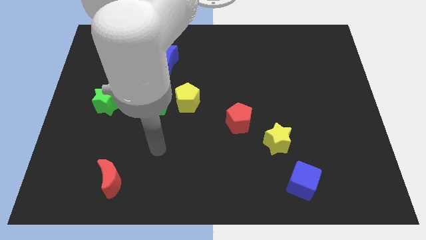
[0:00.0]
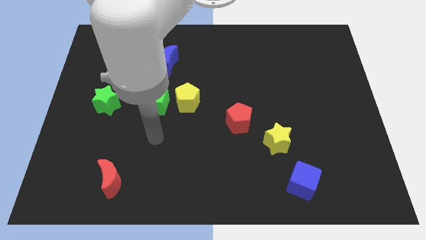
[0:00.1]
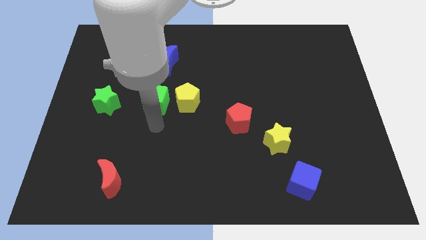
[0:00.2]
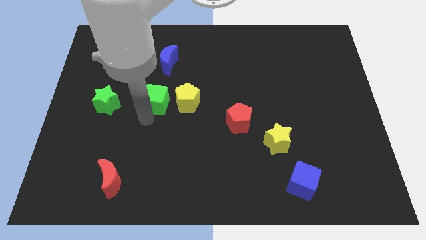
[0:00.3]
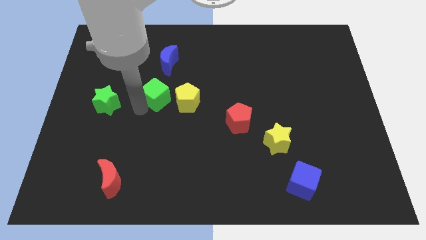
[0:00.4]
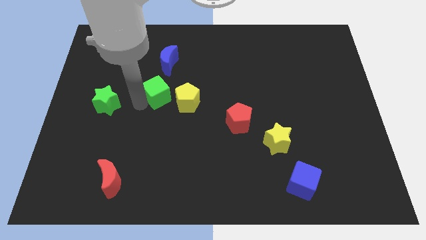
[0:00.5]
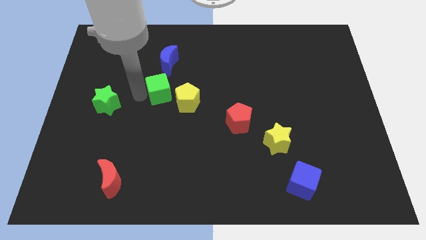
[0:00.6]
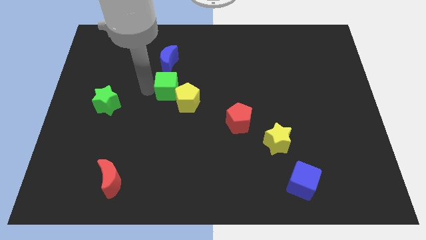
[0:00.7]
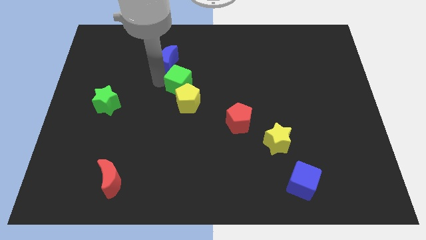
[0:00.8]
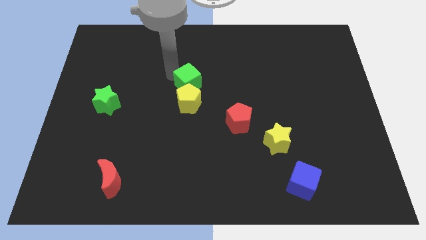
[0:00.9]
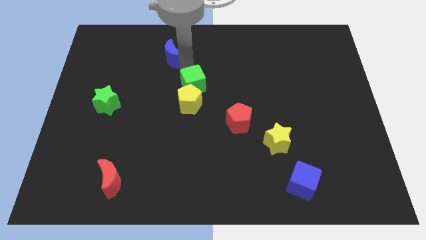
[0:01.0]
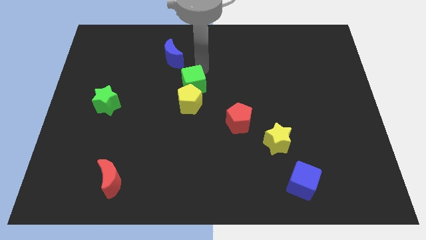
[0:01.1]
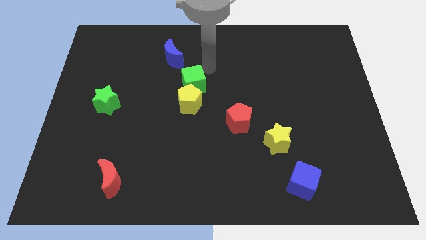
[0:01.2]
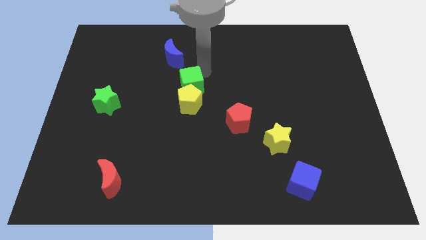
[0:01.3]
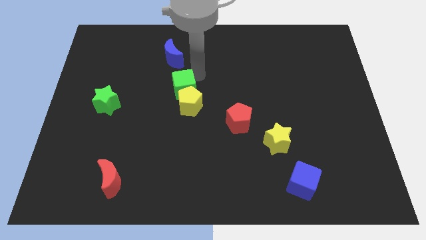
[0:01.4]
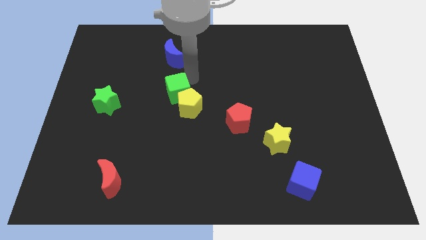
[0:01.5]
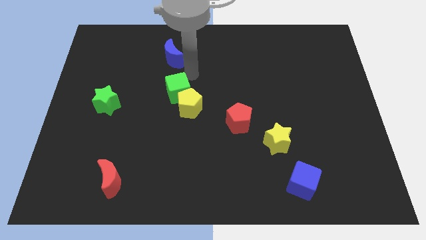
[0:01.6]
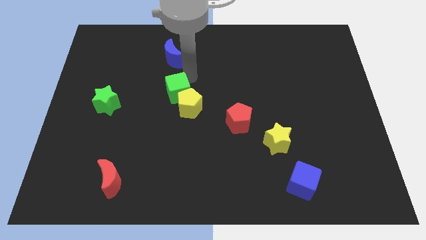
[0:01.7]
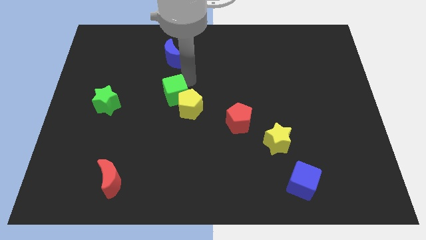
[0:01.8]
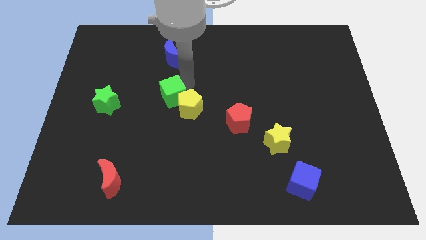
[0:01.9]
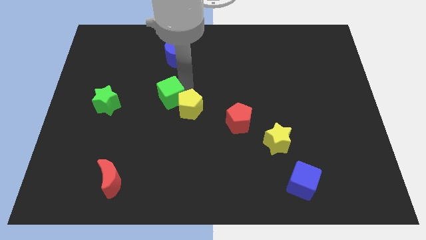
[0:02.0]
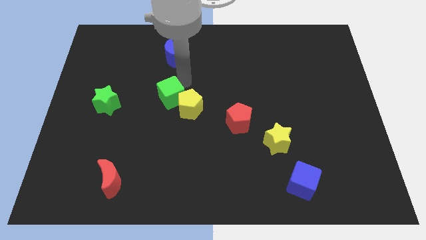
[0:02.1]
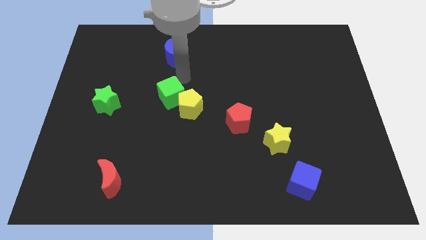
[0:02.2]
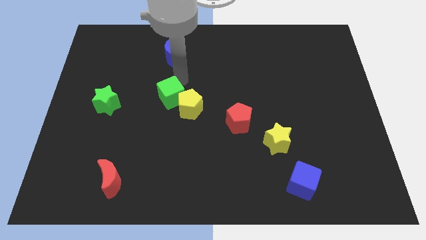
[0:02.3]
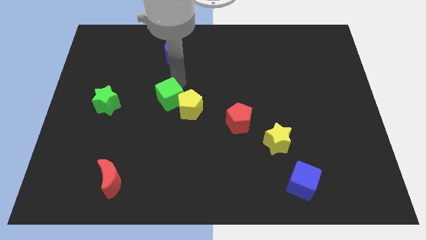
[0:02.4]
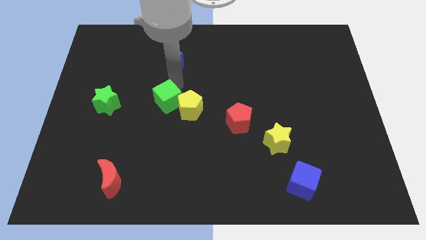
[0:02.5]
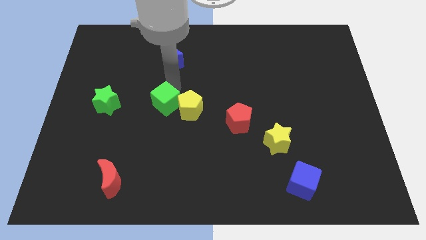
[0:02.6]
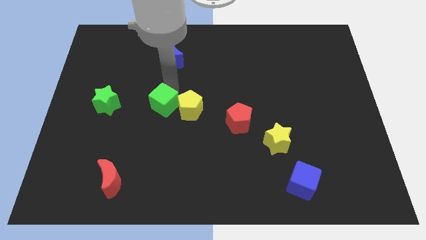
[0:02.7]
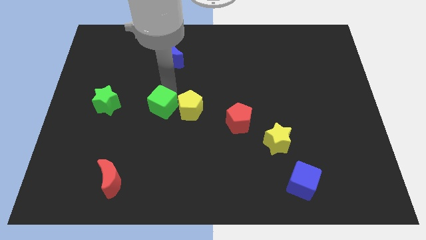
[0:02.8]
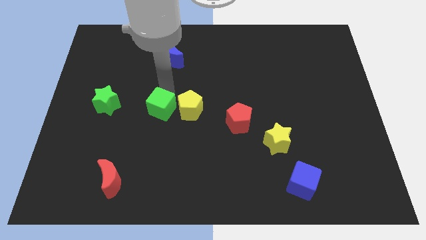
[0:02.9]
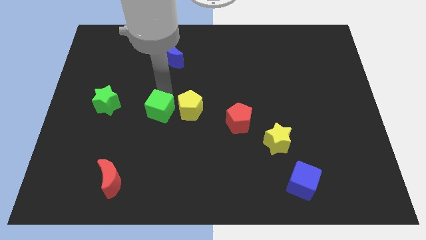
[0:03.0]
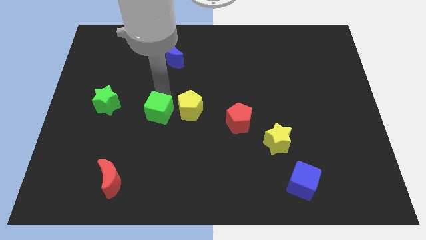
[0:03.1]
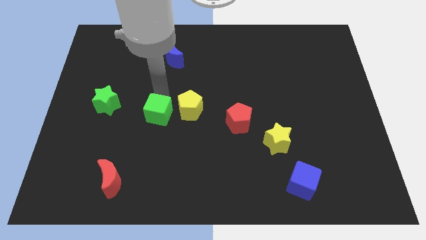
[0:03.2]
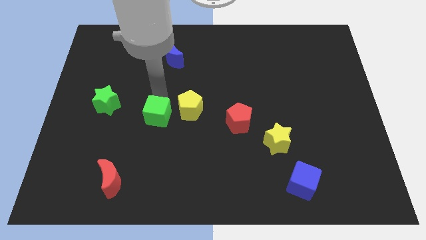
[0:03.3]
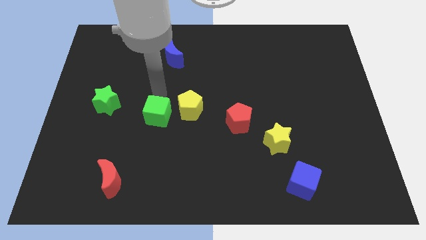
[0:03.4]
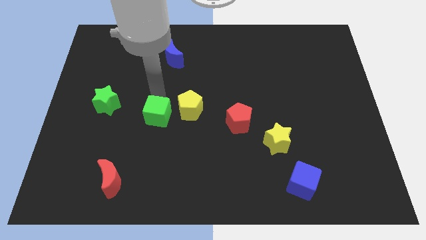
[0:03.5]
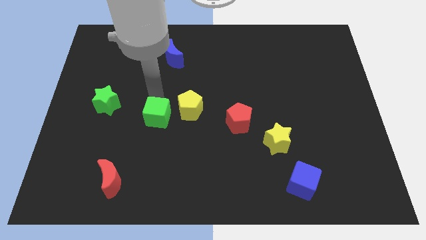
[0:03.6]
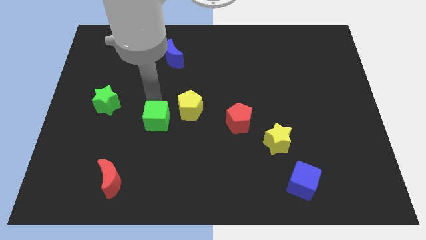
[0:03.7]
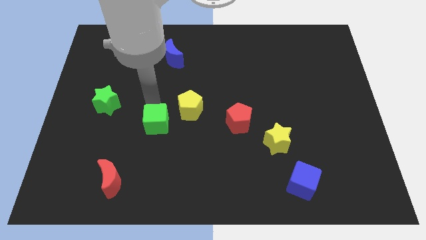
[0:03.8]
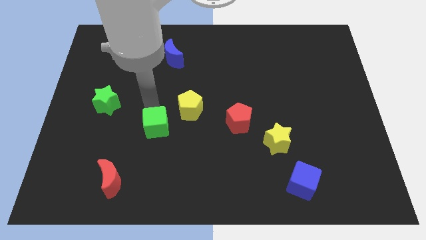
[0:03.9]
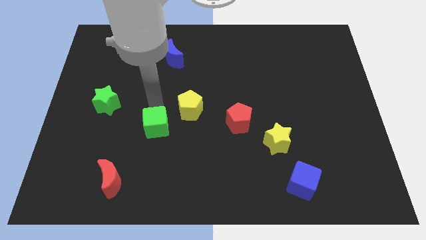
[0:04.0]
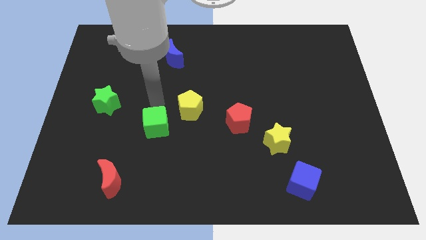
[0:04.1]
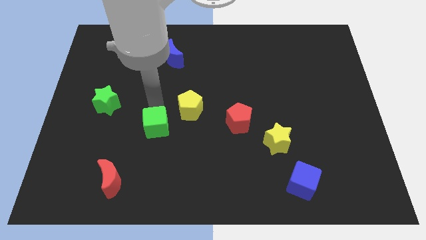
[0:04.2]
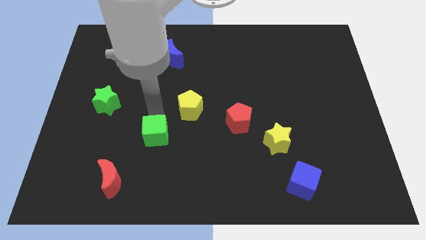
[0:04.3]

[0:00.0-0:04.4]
move the green cube downwards a little

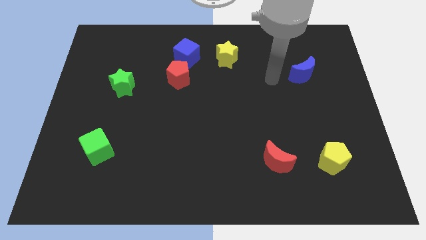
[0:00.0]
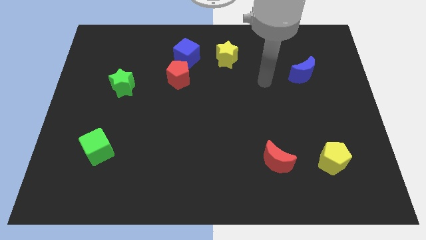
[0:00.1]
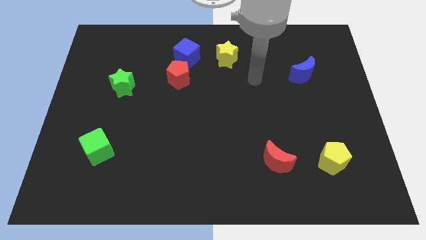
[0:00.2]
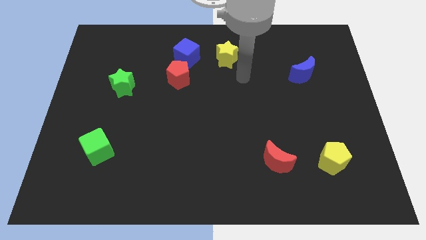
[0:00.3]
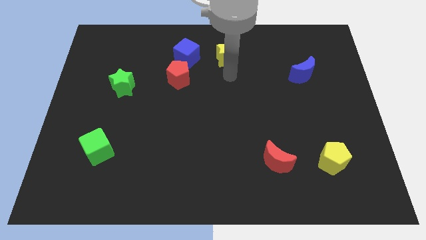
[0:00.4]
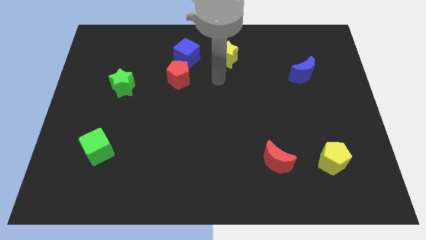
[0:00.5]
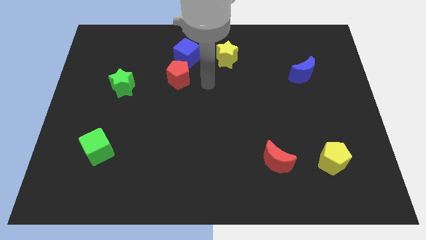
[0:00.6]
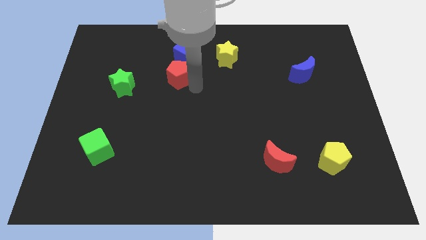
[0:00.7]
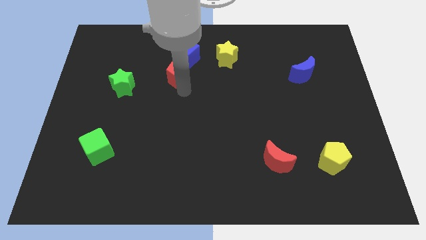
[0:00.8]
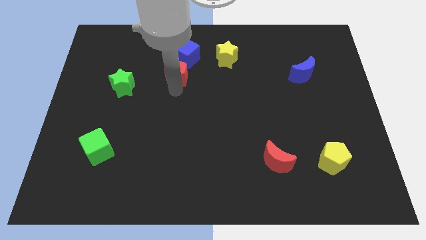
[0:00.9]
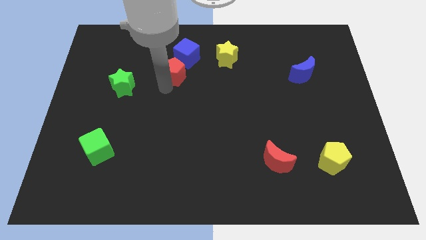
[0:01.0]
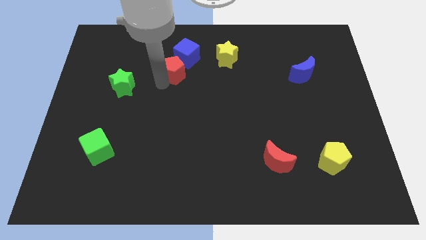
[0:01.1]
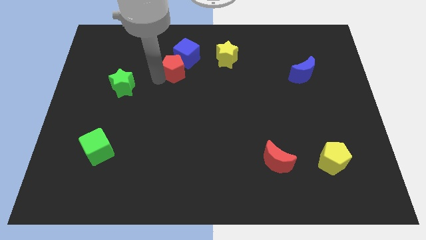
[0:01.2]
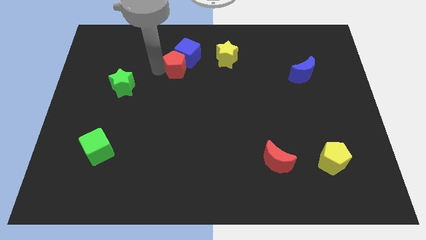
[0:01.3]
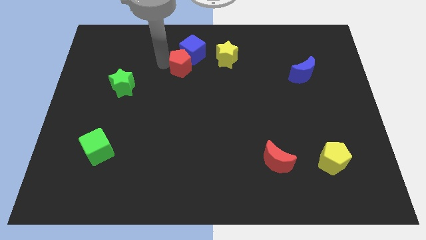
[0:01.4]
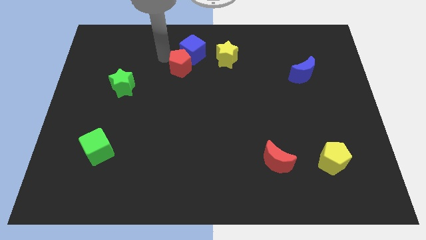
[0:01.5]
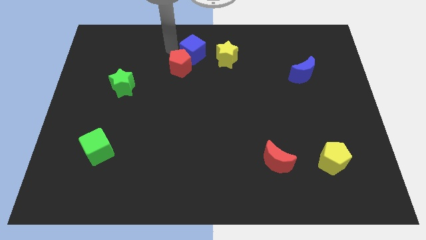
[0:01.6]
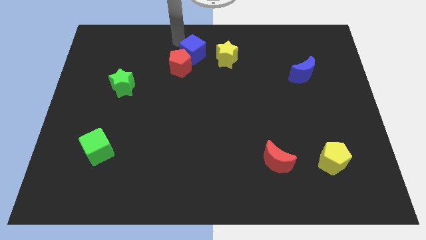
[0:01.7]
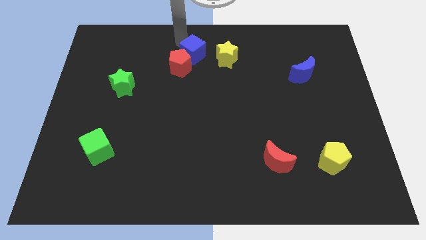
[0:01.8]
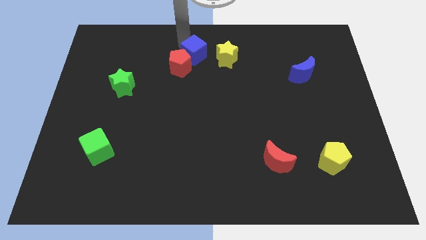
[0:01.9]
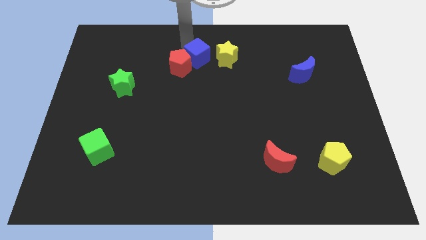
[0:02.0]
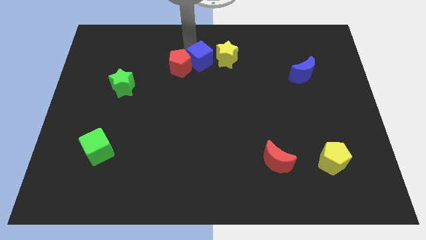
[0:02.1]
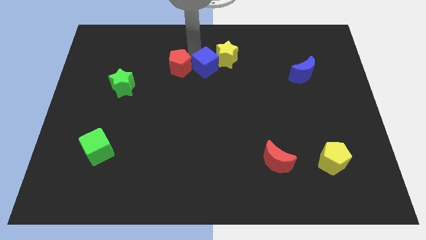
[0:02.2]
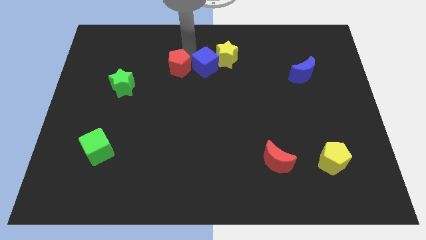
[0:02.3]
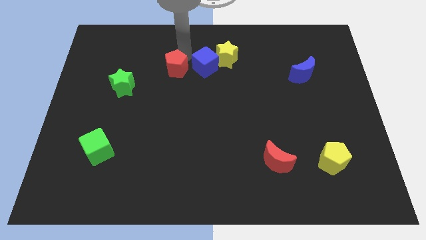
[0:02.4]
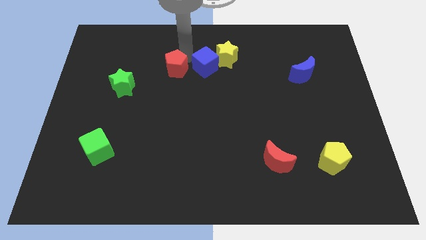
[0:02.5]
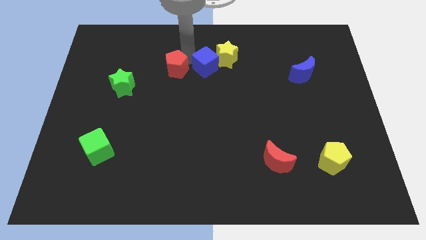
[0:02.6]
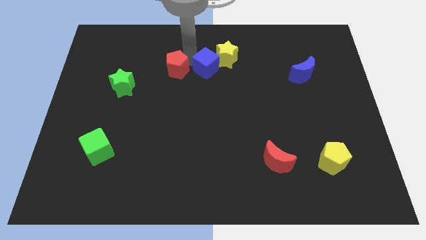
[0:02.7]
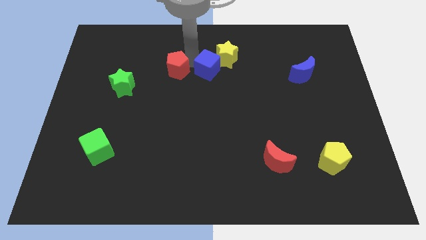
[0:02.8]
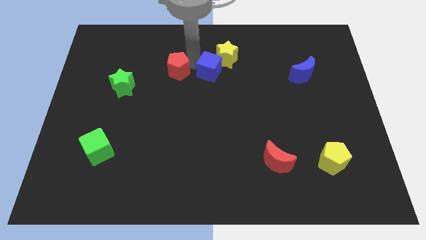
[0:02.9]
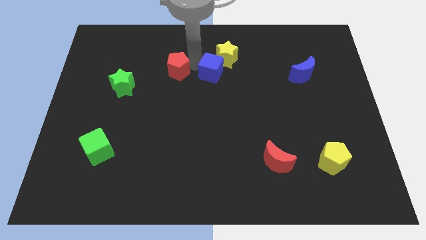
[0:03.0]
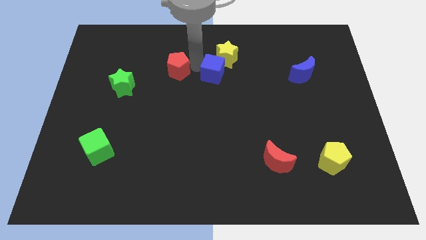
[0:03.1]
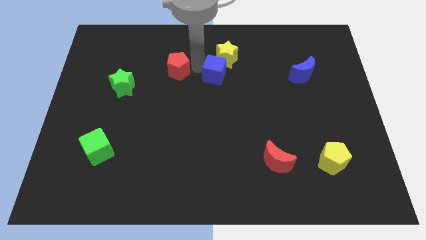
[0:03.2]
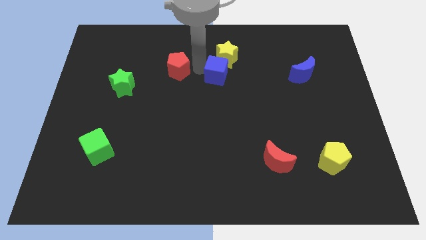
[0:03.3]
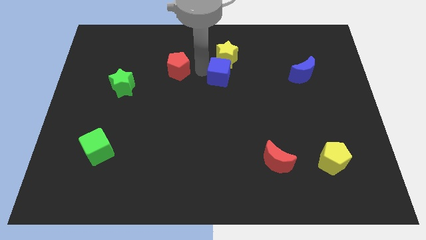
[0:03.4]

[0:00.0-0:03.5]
slightly slide the blue cube to the right

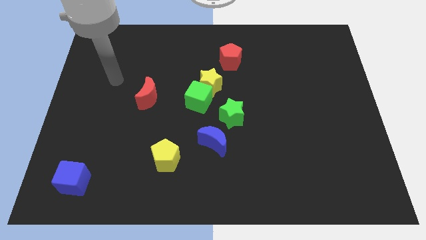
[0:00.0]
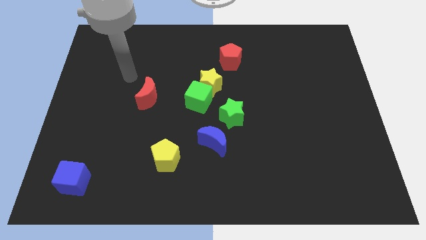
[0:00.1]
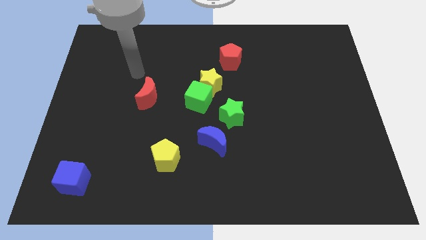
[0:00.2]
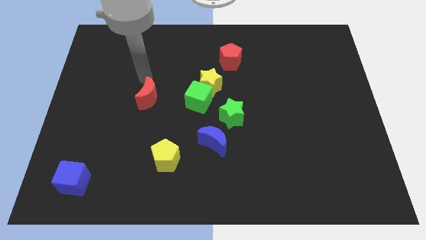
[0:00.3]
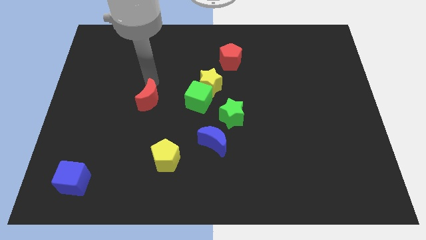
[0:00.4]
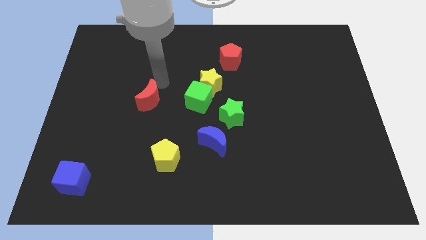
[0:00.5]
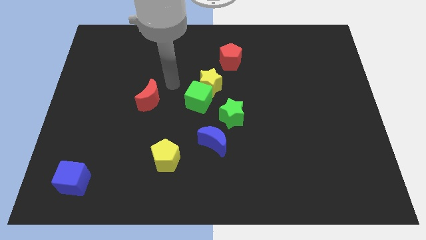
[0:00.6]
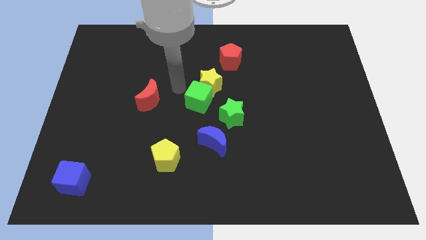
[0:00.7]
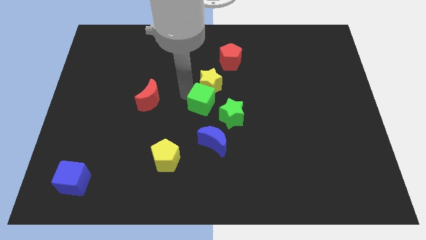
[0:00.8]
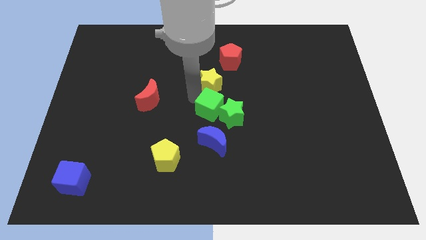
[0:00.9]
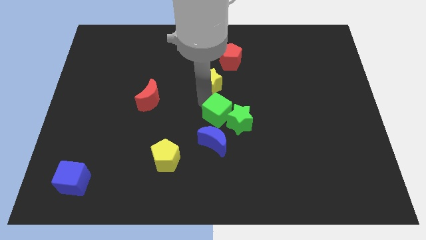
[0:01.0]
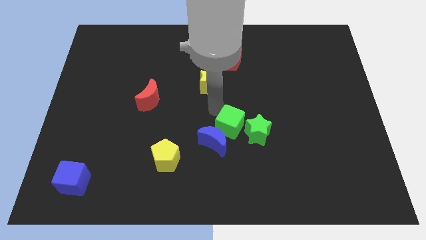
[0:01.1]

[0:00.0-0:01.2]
push the green star diagonally downwards and right somewhat
